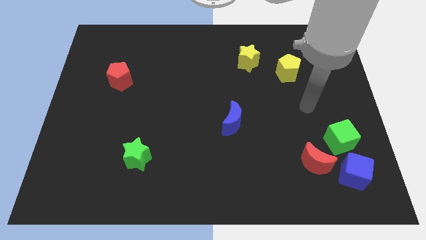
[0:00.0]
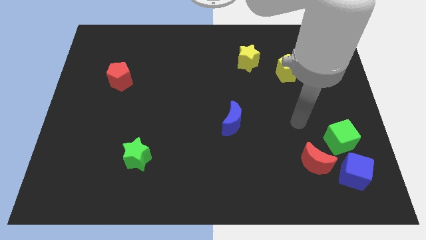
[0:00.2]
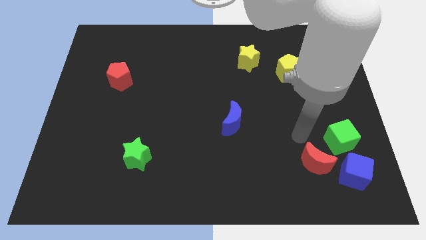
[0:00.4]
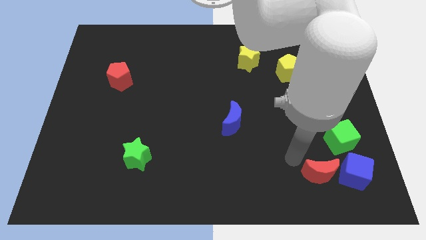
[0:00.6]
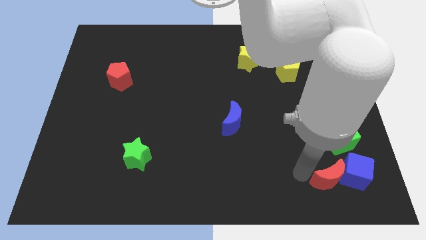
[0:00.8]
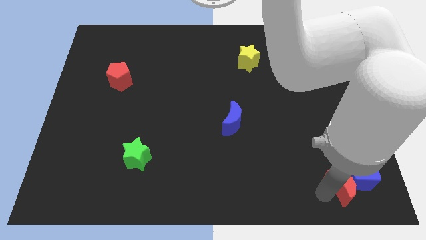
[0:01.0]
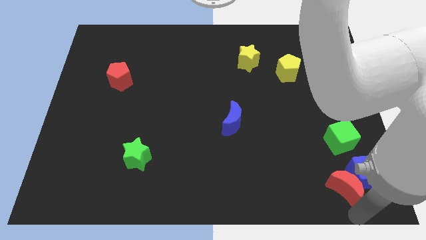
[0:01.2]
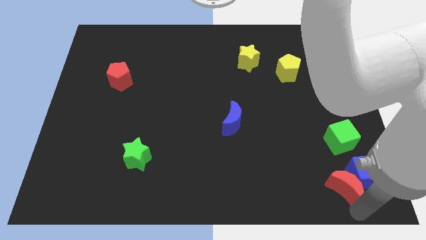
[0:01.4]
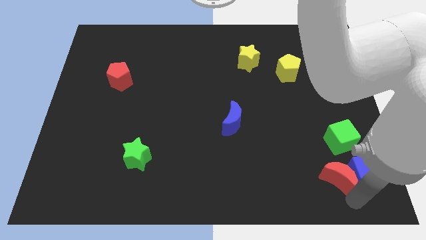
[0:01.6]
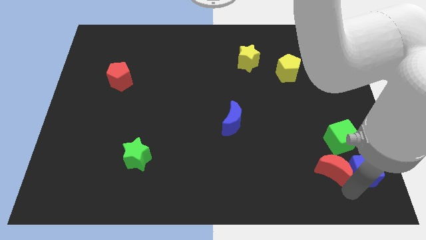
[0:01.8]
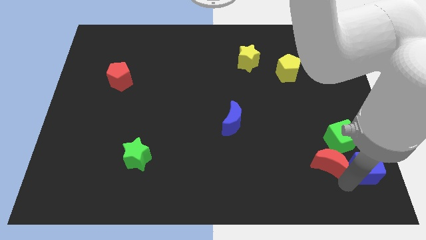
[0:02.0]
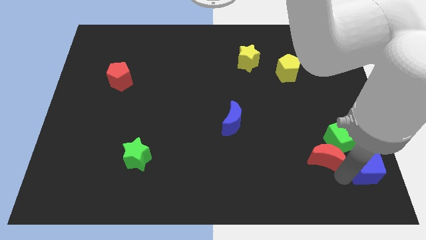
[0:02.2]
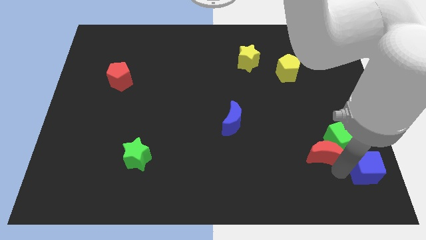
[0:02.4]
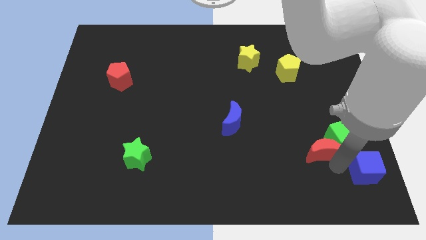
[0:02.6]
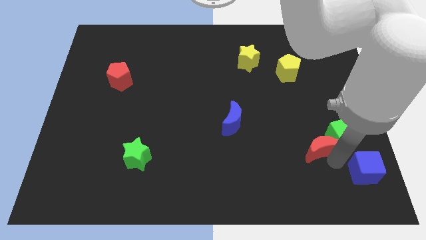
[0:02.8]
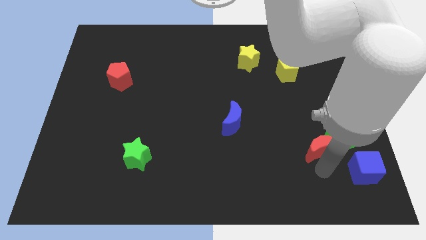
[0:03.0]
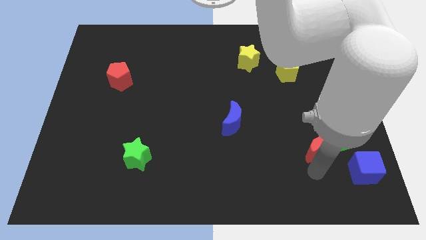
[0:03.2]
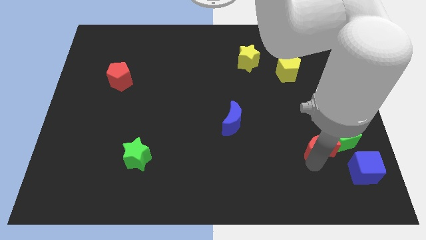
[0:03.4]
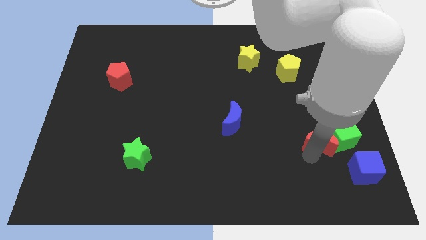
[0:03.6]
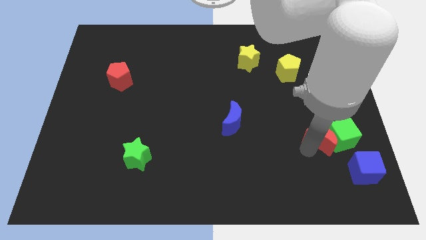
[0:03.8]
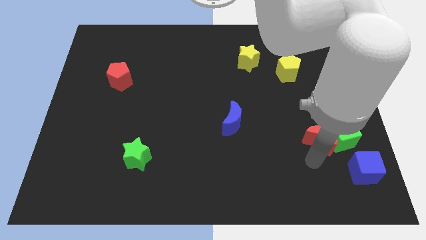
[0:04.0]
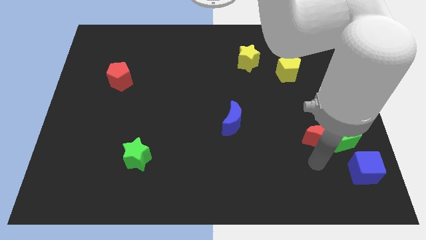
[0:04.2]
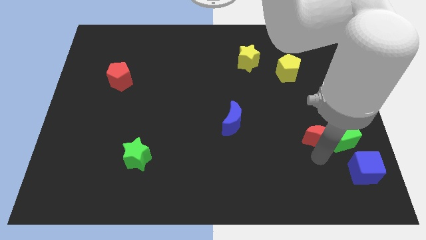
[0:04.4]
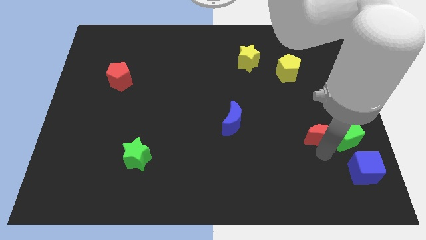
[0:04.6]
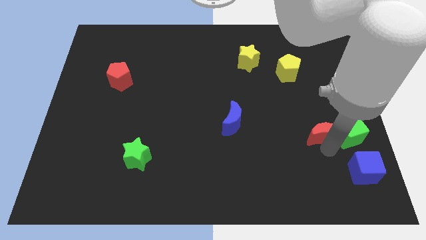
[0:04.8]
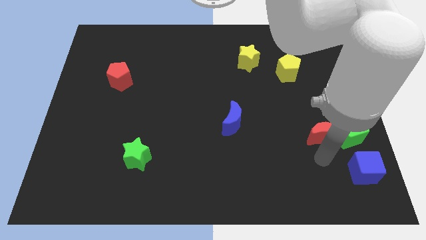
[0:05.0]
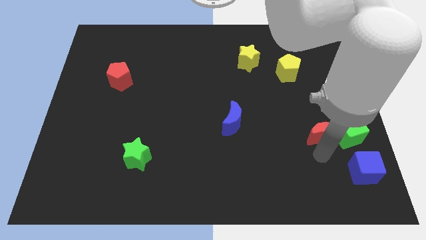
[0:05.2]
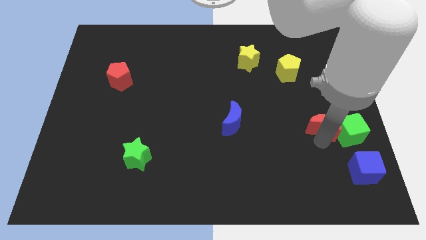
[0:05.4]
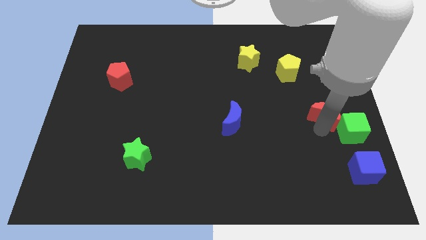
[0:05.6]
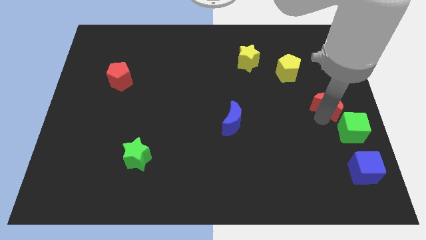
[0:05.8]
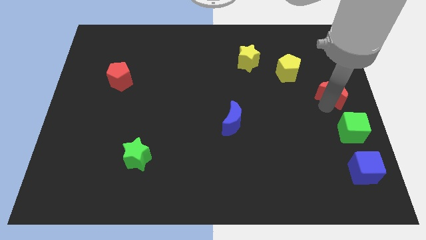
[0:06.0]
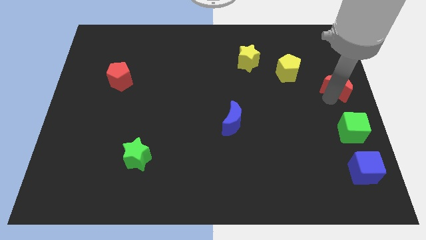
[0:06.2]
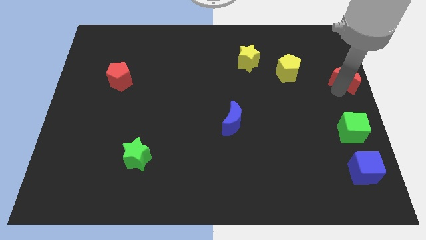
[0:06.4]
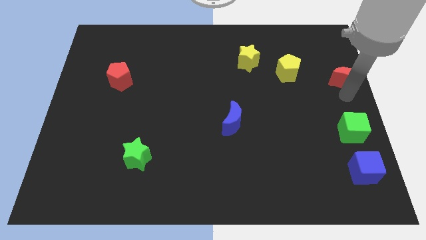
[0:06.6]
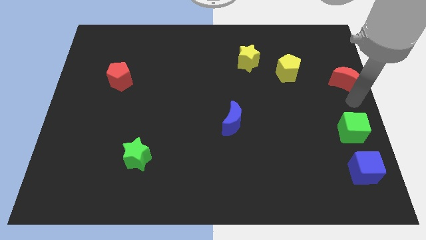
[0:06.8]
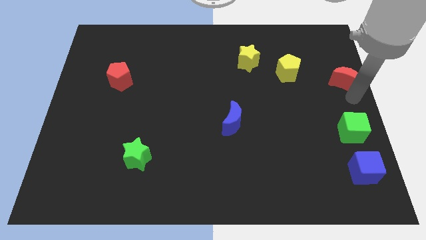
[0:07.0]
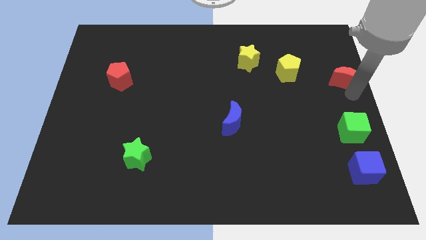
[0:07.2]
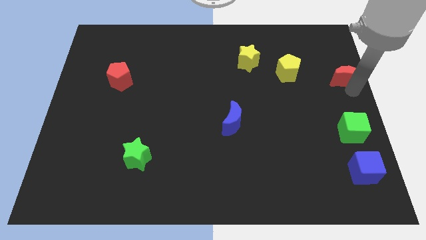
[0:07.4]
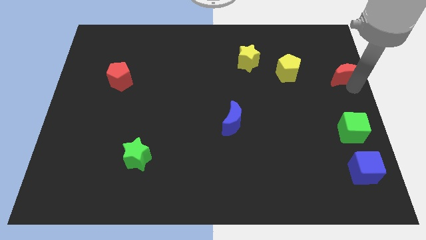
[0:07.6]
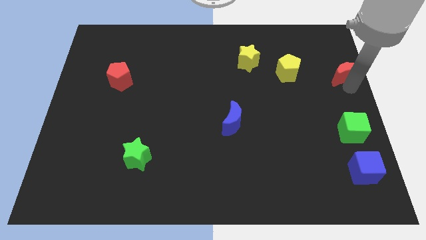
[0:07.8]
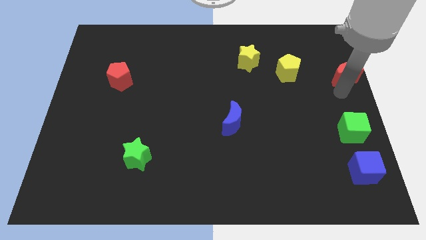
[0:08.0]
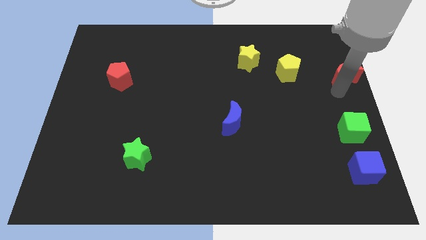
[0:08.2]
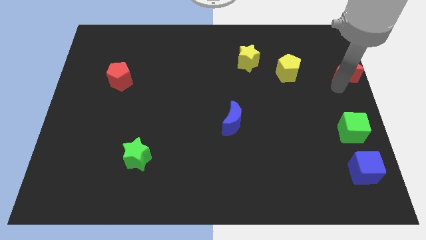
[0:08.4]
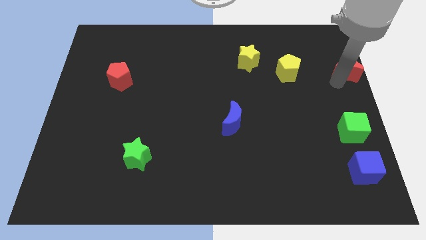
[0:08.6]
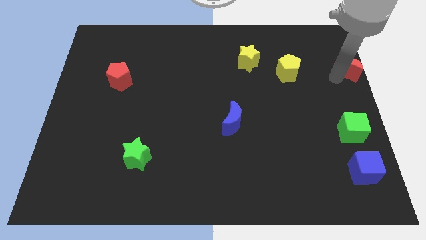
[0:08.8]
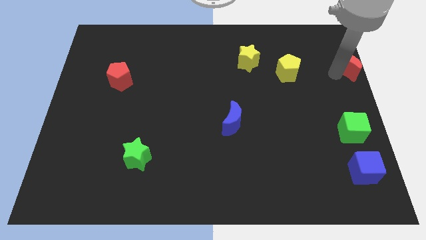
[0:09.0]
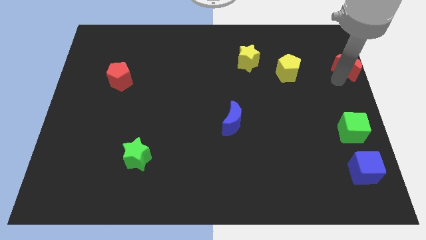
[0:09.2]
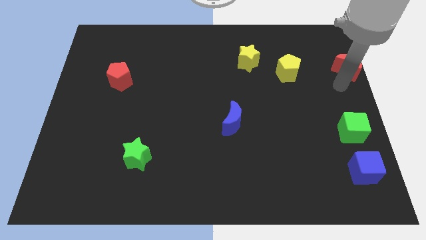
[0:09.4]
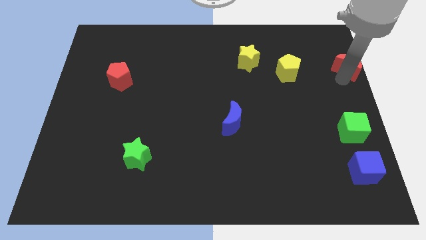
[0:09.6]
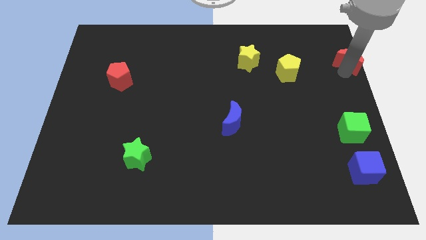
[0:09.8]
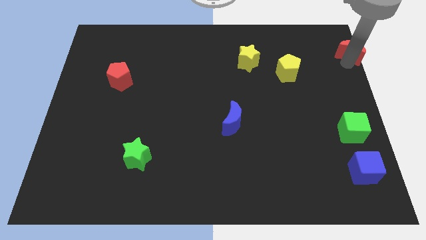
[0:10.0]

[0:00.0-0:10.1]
move the red moon to the upper right corner
